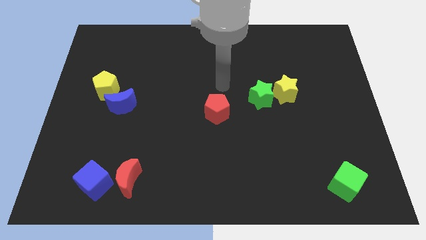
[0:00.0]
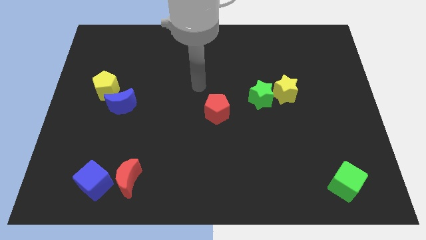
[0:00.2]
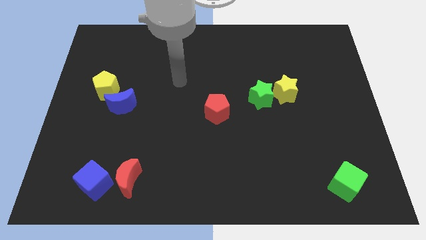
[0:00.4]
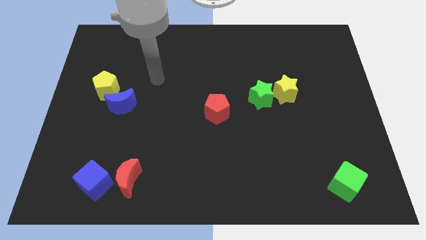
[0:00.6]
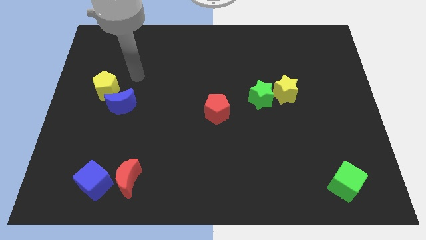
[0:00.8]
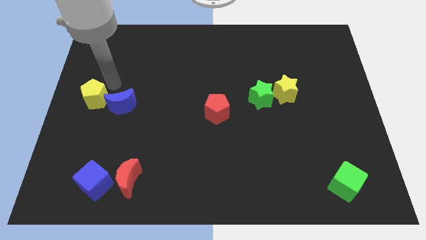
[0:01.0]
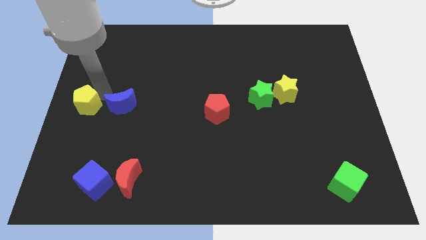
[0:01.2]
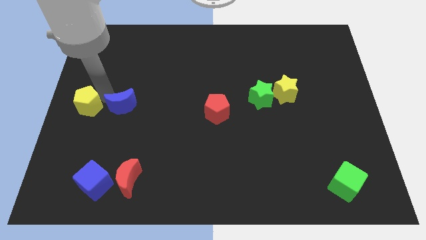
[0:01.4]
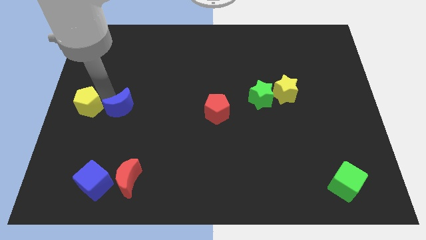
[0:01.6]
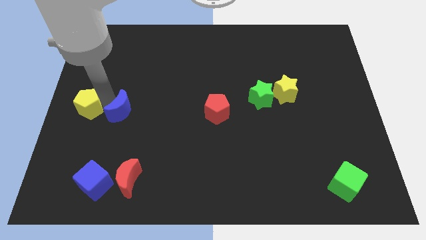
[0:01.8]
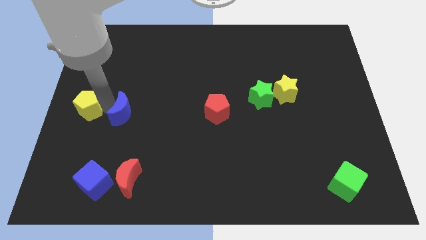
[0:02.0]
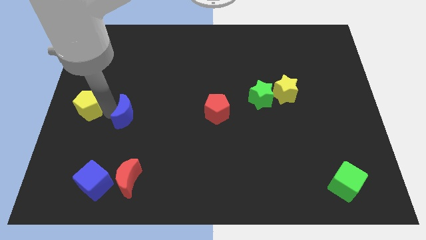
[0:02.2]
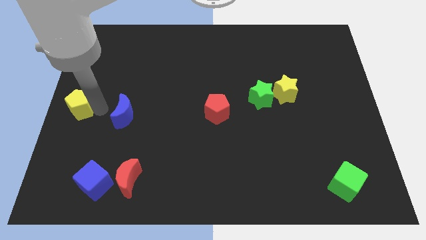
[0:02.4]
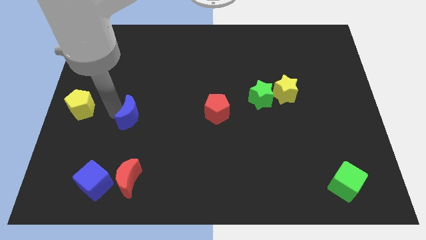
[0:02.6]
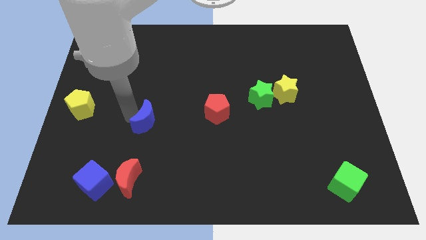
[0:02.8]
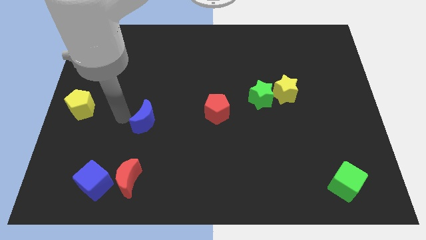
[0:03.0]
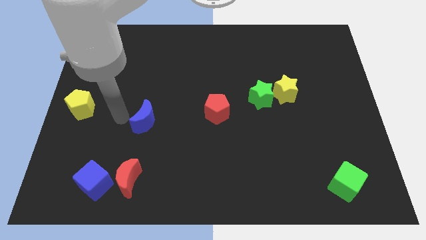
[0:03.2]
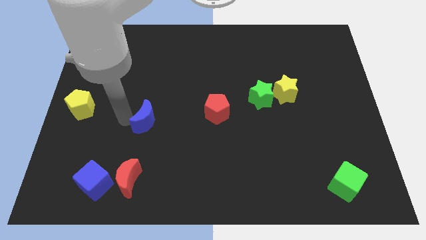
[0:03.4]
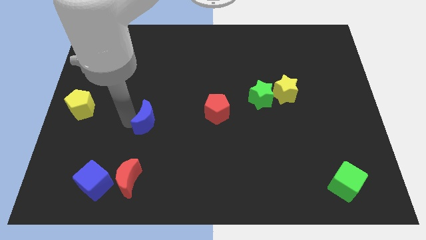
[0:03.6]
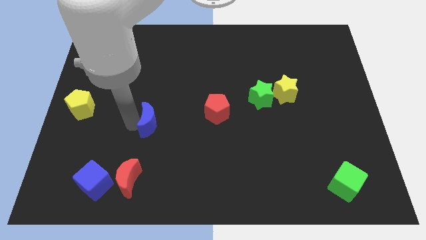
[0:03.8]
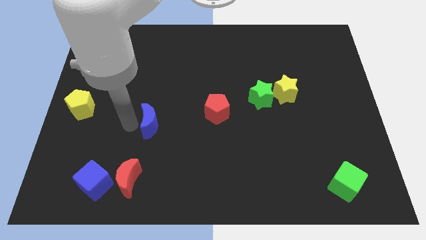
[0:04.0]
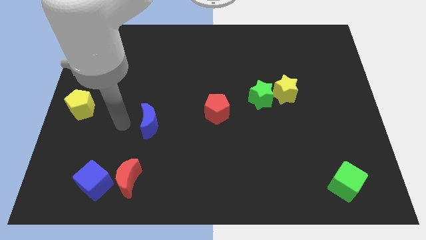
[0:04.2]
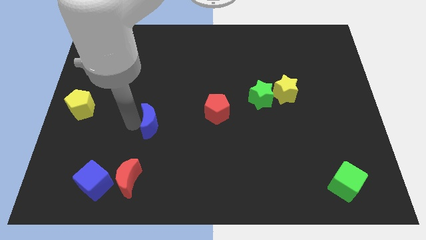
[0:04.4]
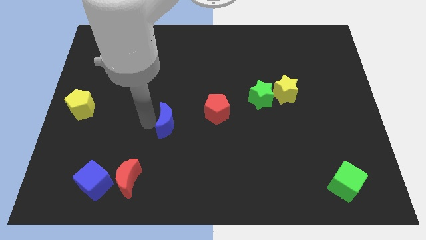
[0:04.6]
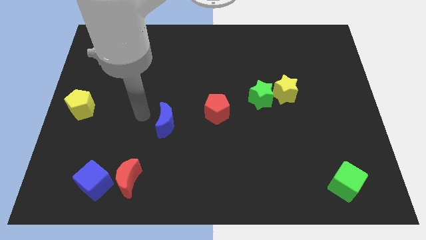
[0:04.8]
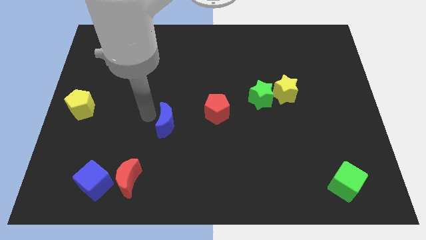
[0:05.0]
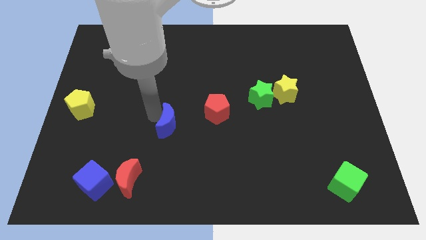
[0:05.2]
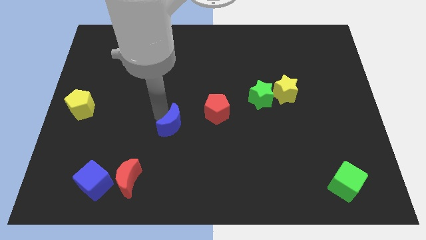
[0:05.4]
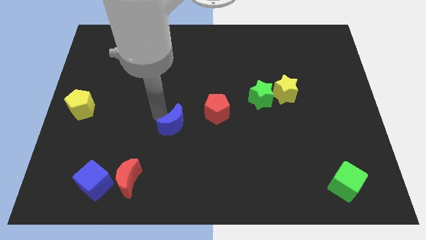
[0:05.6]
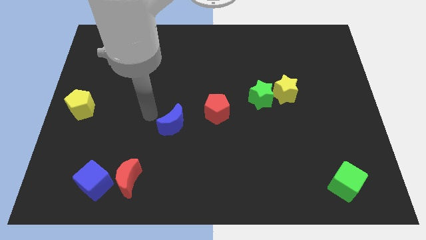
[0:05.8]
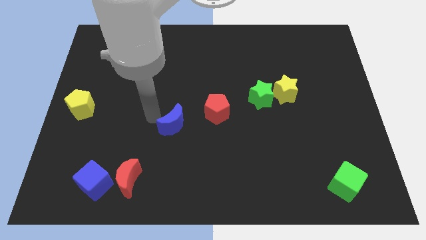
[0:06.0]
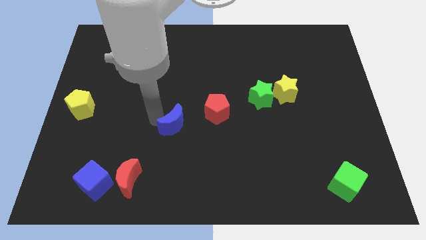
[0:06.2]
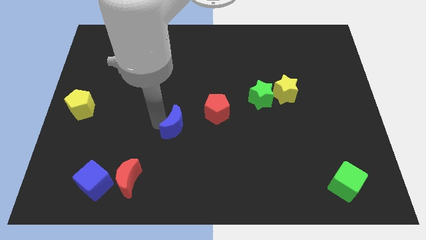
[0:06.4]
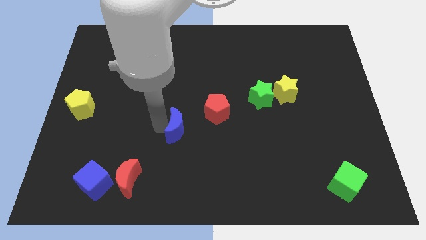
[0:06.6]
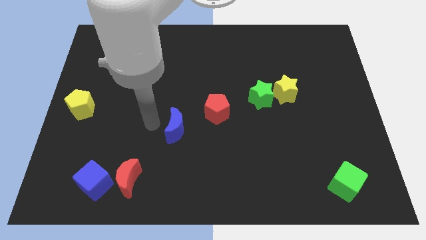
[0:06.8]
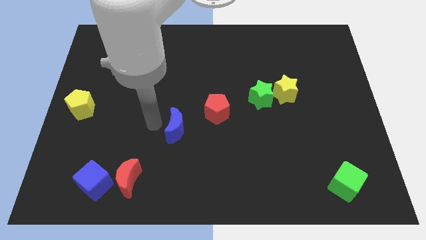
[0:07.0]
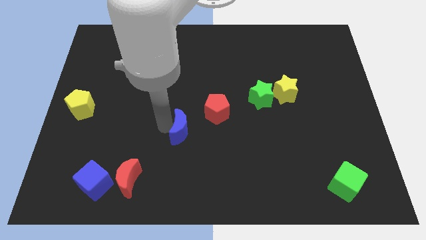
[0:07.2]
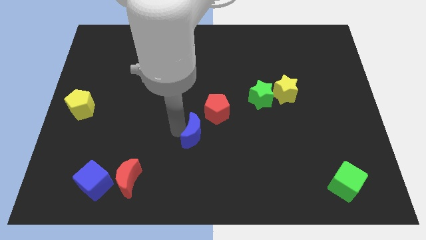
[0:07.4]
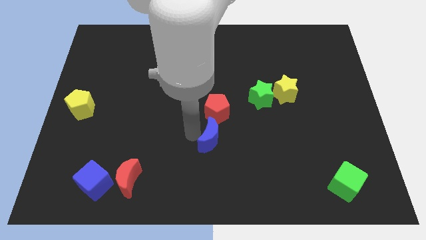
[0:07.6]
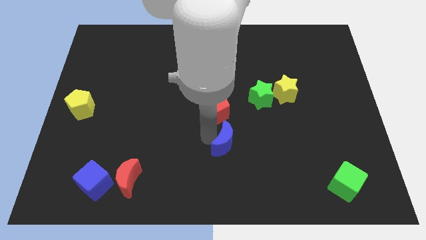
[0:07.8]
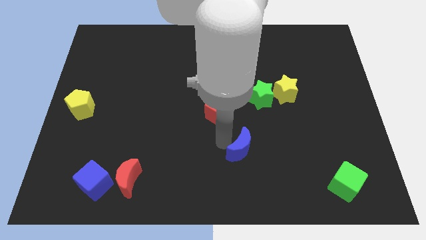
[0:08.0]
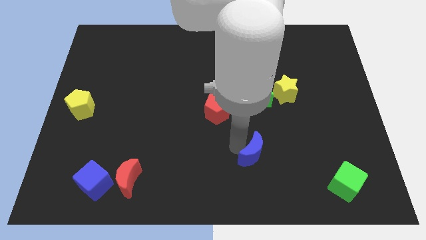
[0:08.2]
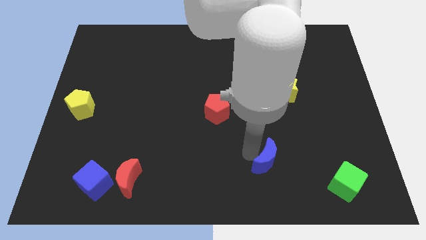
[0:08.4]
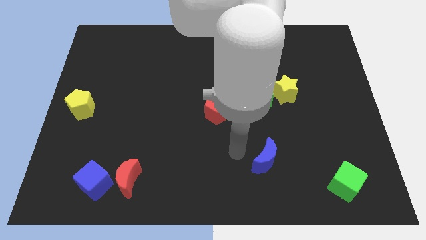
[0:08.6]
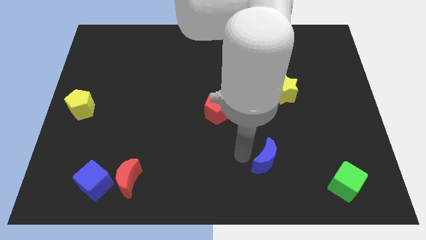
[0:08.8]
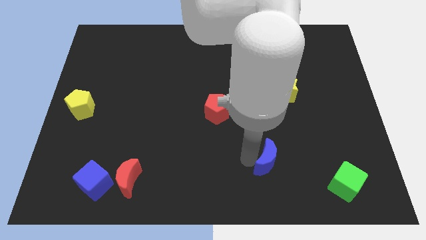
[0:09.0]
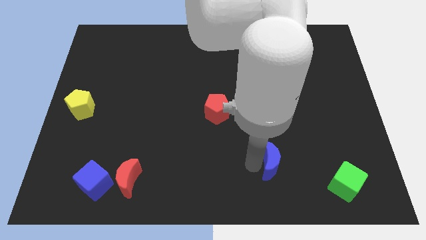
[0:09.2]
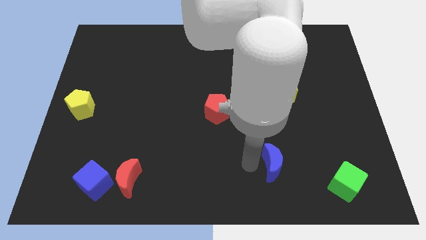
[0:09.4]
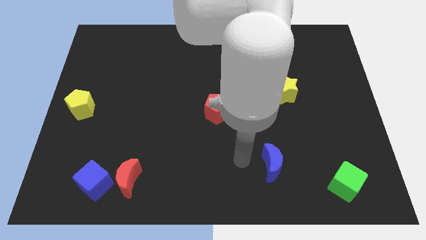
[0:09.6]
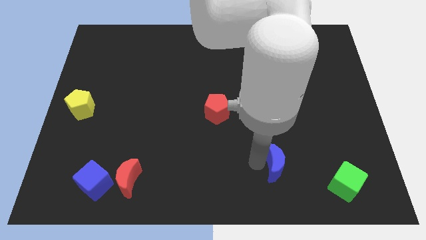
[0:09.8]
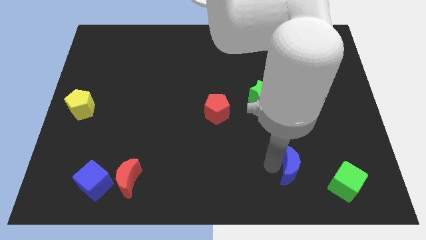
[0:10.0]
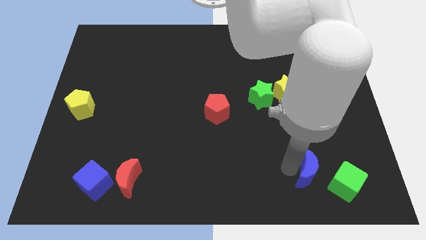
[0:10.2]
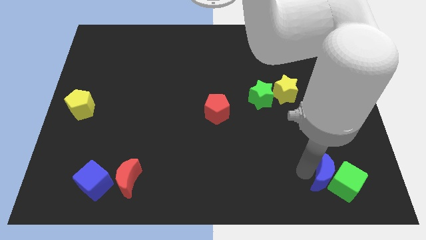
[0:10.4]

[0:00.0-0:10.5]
put the blue moon next to the green cube

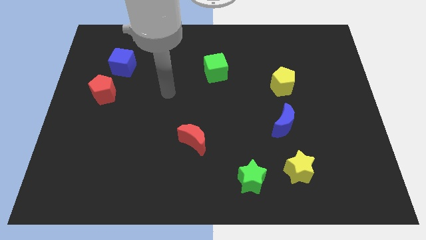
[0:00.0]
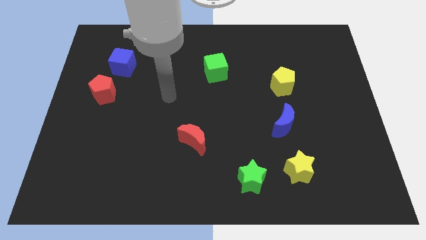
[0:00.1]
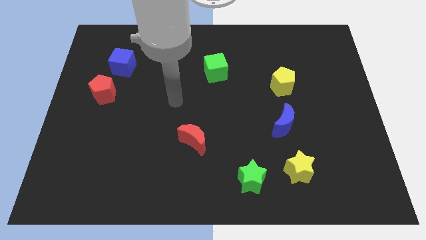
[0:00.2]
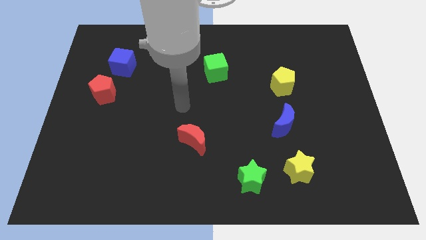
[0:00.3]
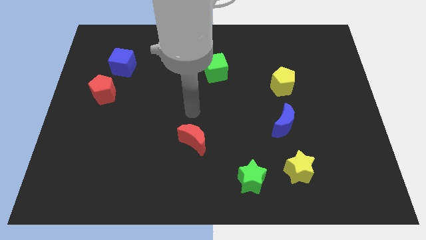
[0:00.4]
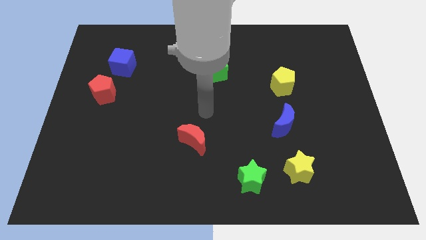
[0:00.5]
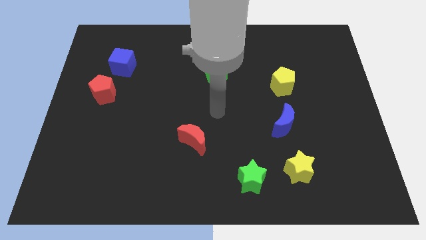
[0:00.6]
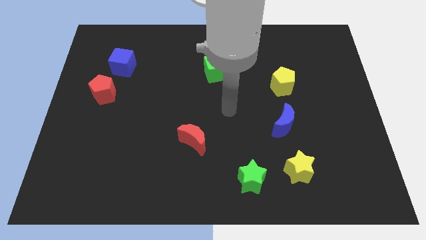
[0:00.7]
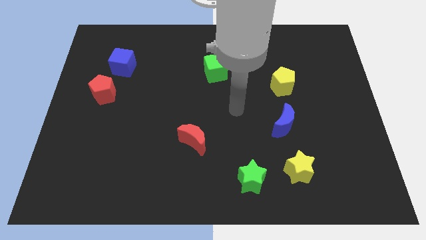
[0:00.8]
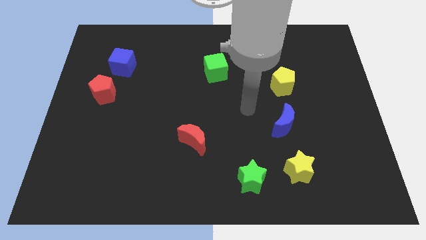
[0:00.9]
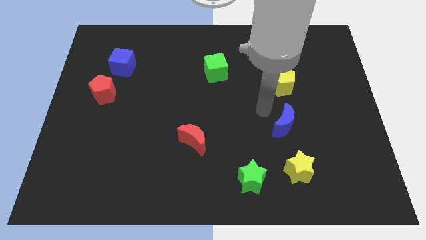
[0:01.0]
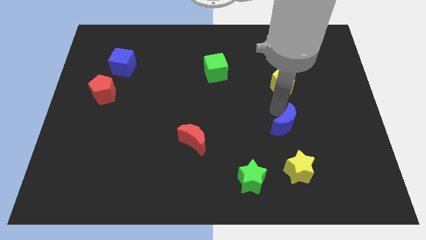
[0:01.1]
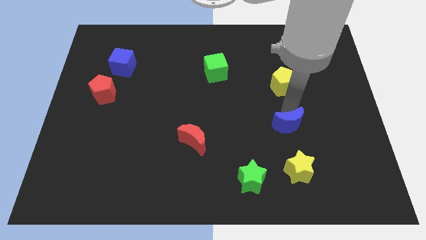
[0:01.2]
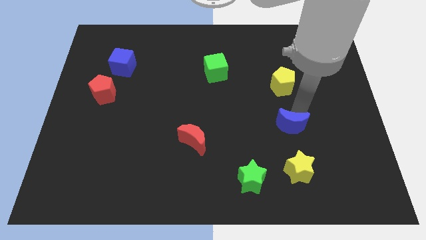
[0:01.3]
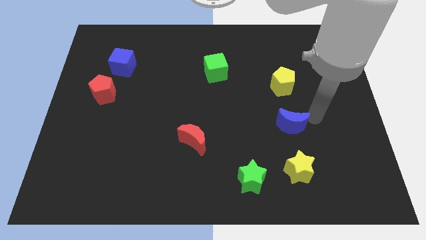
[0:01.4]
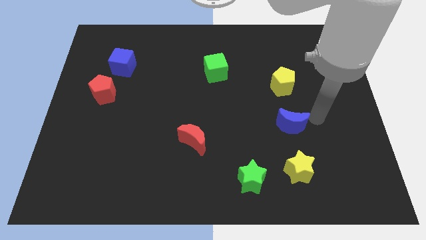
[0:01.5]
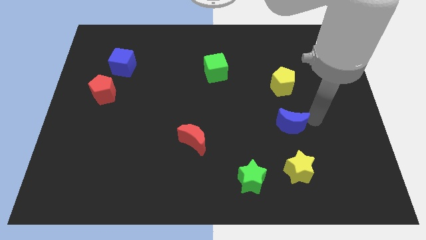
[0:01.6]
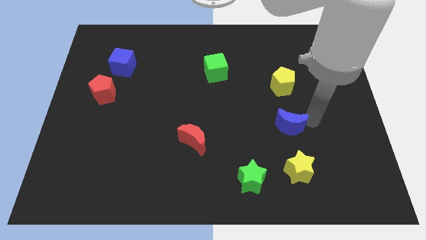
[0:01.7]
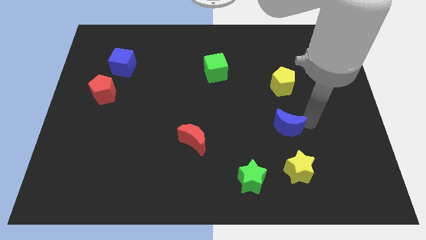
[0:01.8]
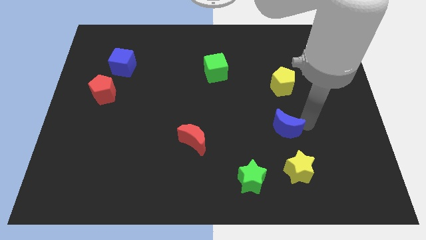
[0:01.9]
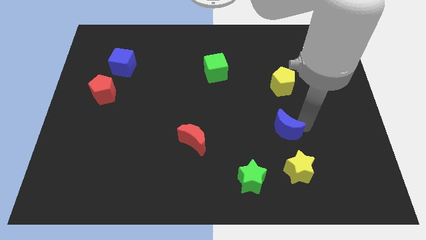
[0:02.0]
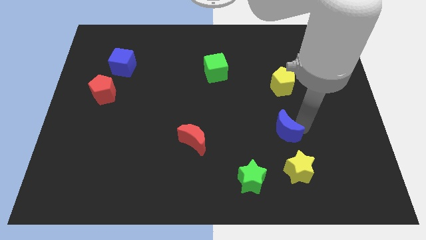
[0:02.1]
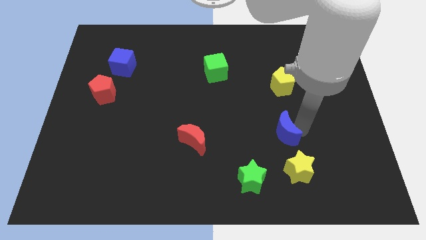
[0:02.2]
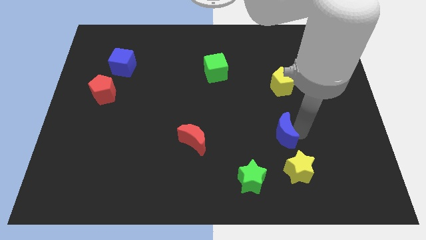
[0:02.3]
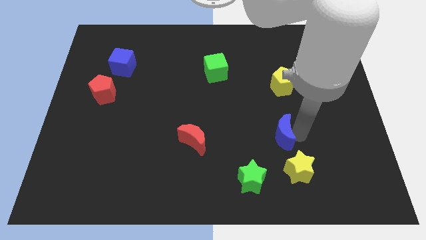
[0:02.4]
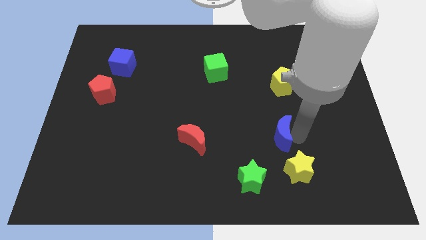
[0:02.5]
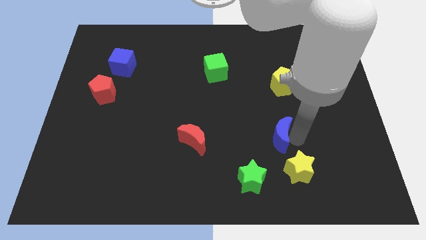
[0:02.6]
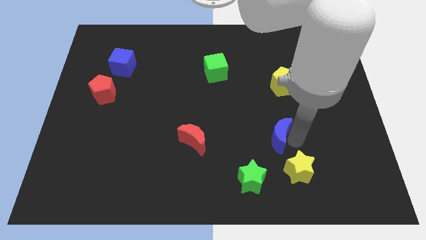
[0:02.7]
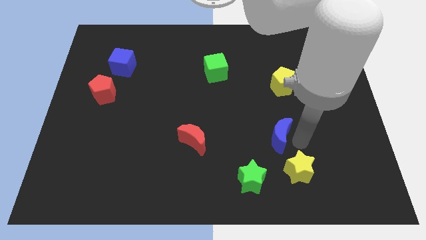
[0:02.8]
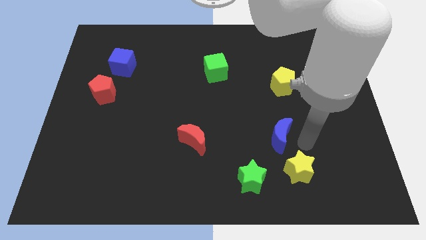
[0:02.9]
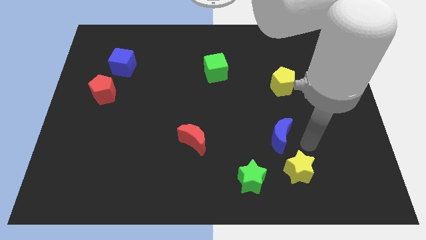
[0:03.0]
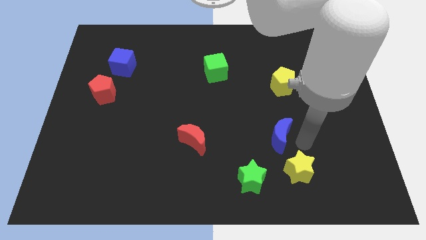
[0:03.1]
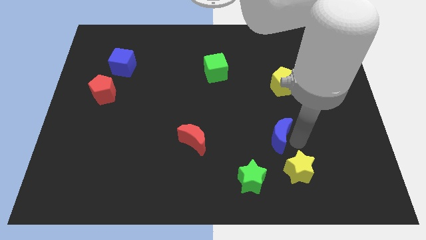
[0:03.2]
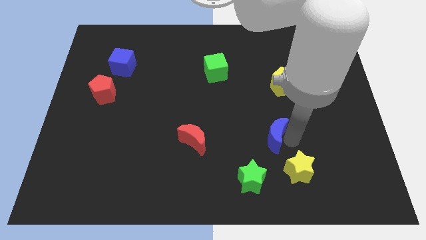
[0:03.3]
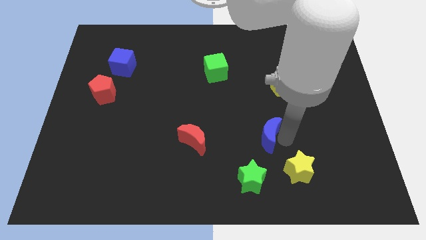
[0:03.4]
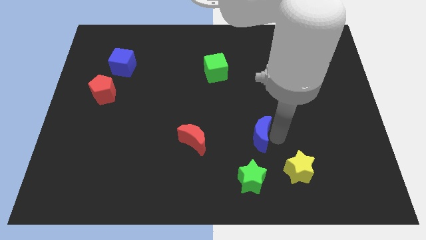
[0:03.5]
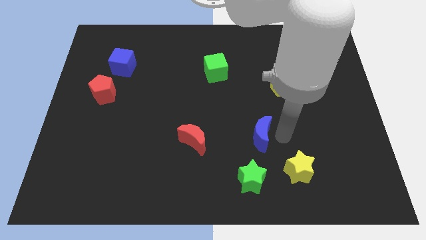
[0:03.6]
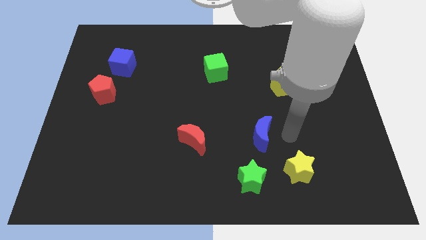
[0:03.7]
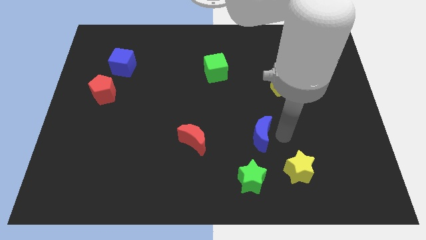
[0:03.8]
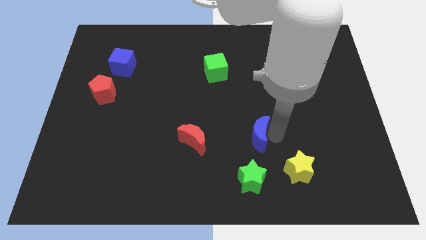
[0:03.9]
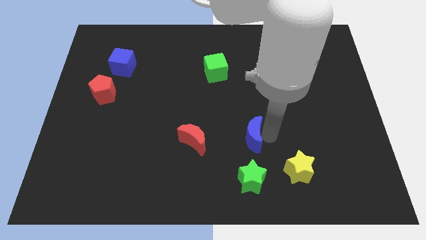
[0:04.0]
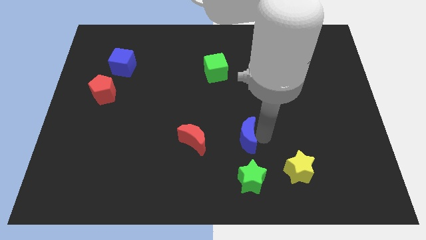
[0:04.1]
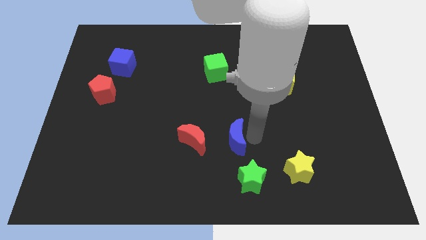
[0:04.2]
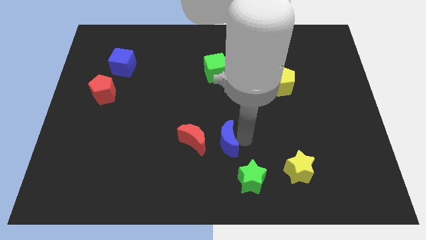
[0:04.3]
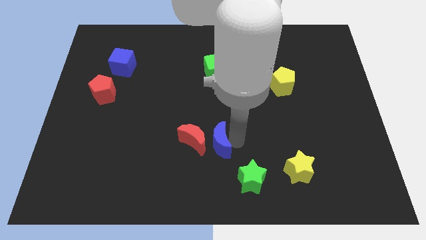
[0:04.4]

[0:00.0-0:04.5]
put the blue moon close to the red moon
